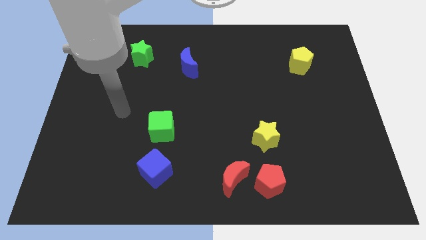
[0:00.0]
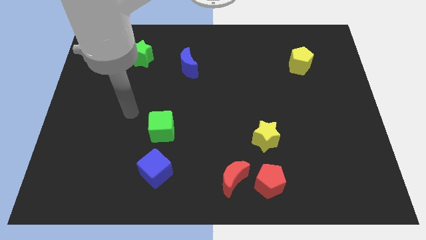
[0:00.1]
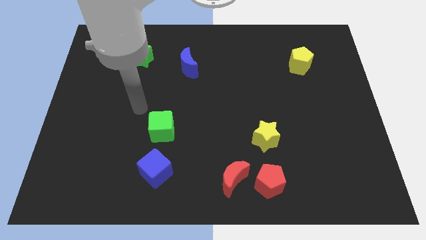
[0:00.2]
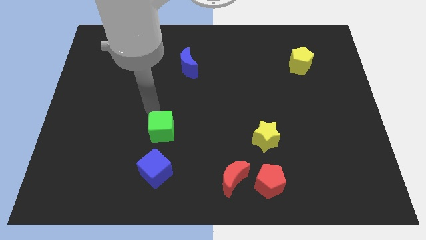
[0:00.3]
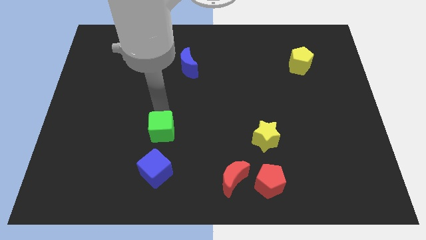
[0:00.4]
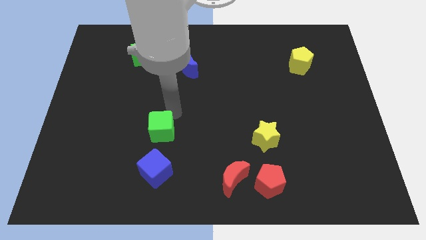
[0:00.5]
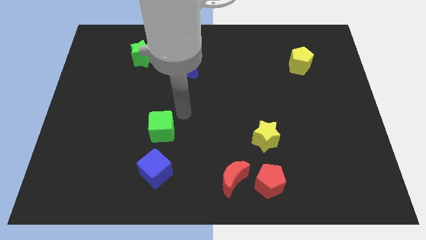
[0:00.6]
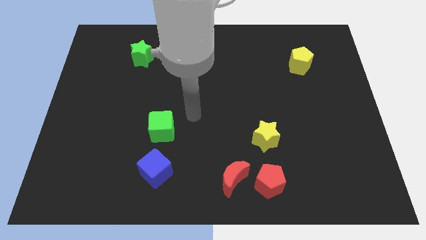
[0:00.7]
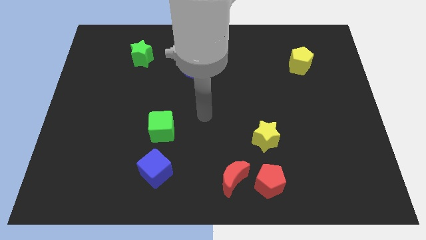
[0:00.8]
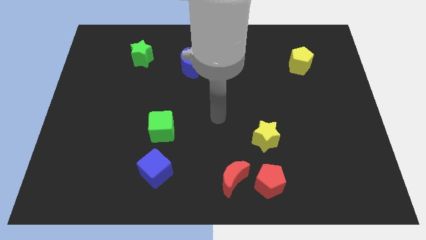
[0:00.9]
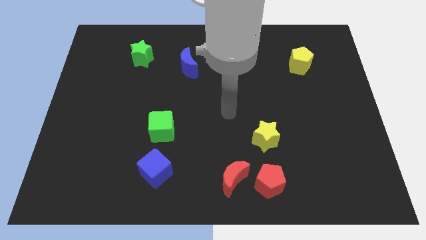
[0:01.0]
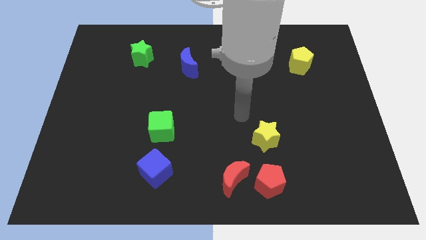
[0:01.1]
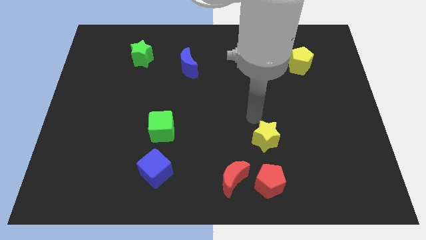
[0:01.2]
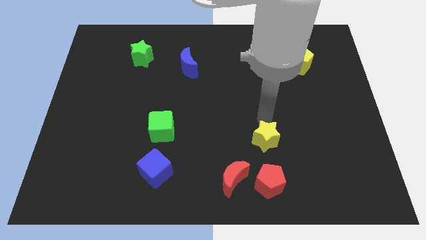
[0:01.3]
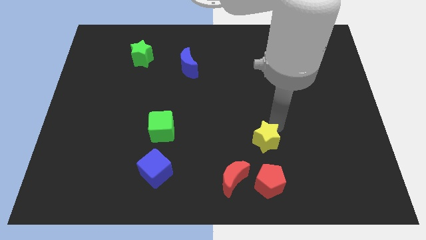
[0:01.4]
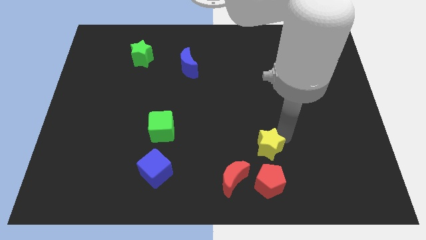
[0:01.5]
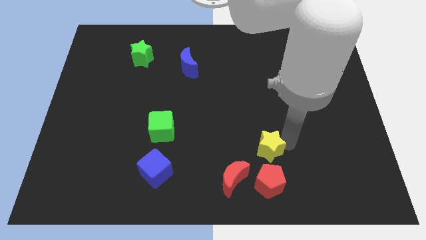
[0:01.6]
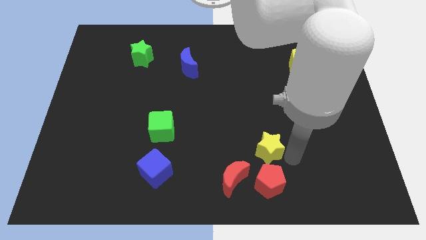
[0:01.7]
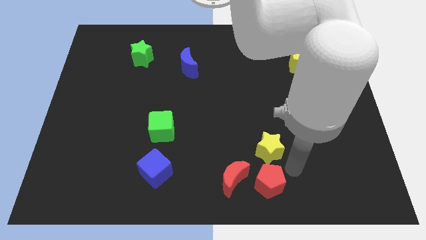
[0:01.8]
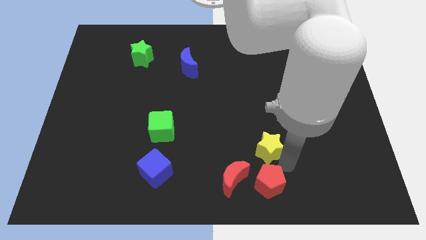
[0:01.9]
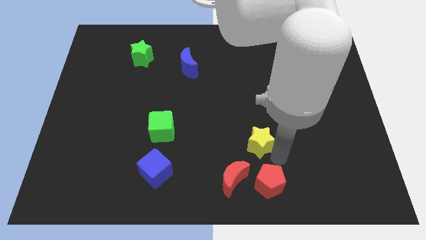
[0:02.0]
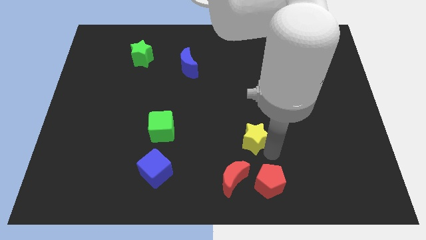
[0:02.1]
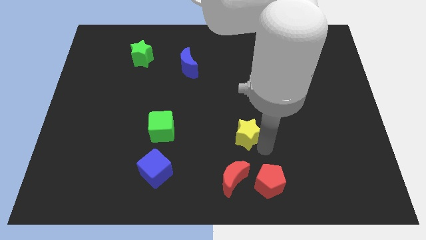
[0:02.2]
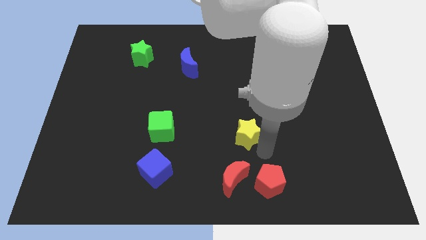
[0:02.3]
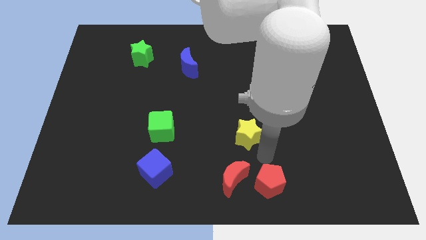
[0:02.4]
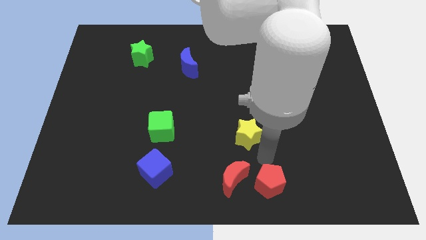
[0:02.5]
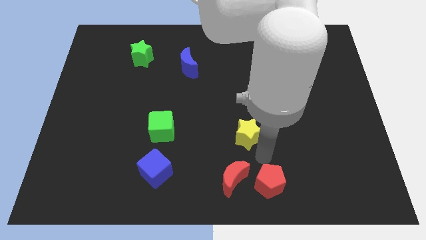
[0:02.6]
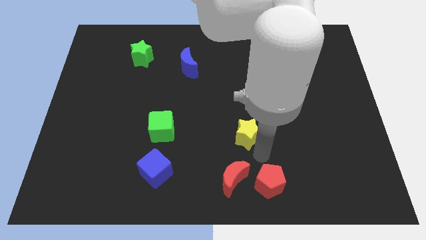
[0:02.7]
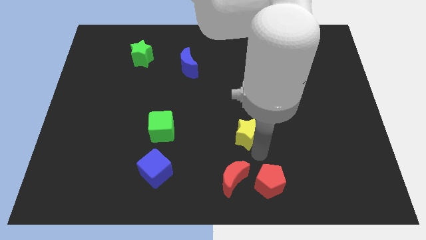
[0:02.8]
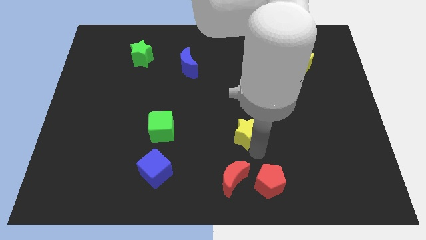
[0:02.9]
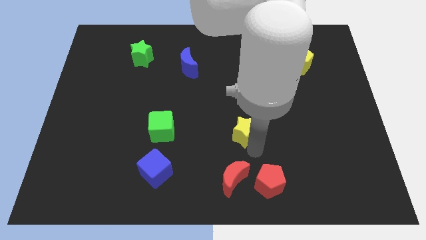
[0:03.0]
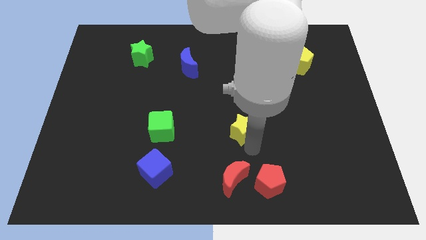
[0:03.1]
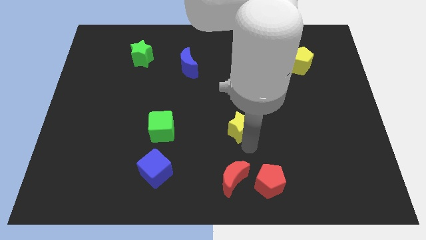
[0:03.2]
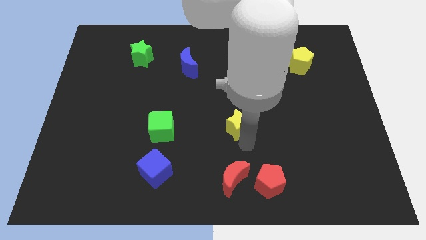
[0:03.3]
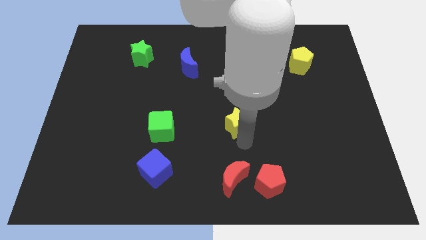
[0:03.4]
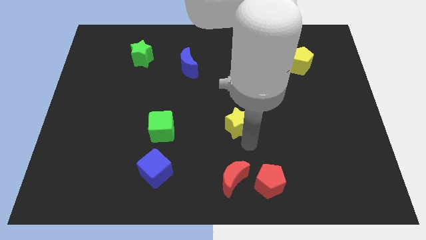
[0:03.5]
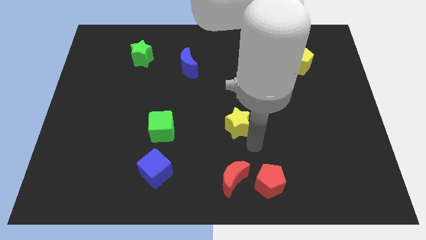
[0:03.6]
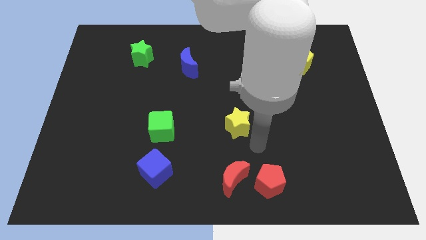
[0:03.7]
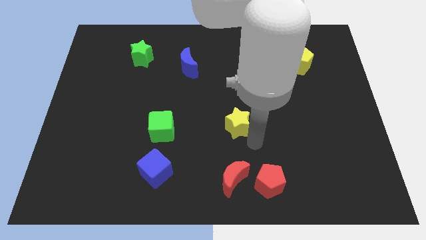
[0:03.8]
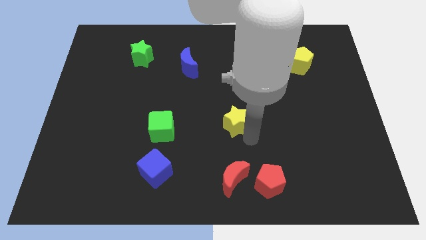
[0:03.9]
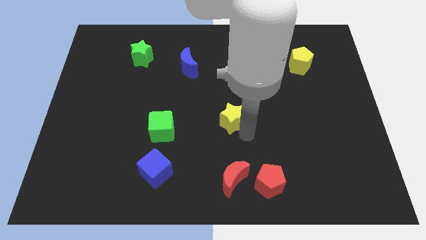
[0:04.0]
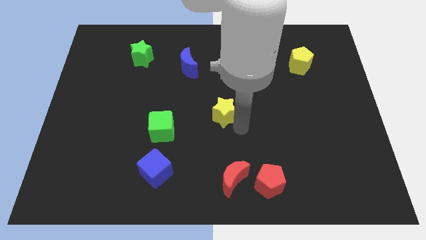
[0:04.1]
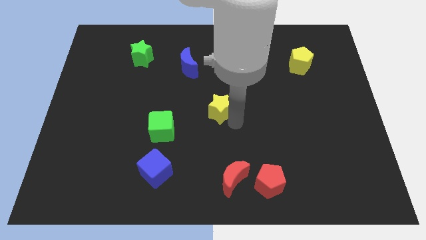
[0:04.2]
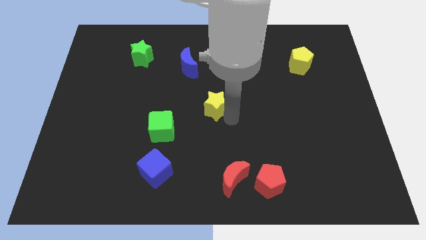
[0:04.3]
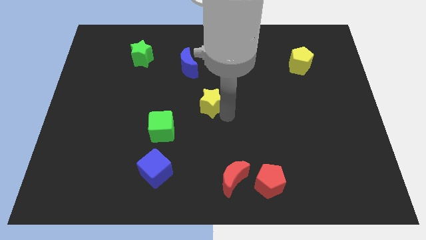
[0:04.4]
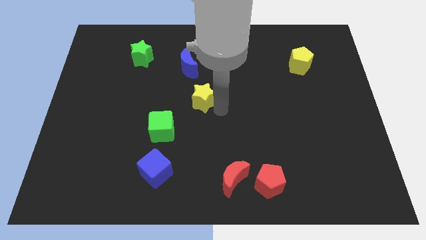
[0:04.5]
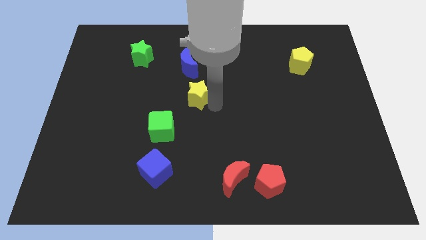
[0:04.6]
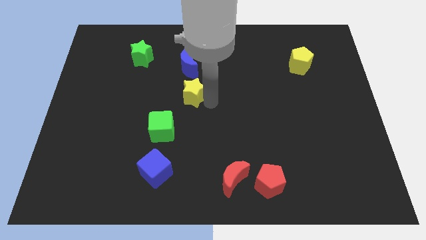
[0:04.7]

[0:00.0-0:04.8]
move the yellow star up and left diagonally

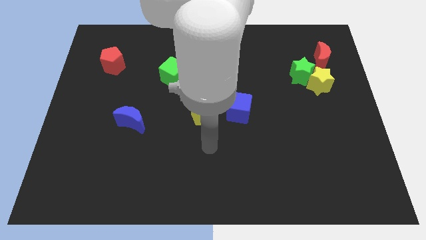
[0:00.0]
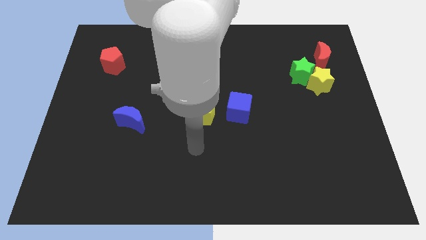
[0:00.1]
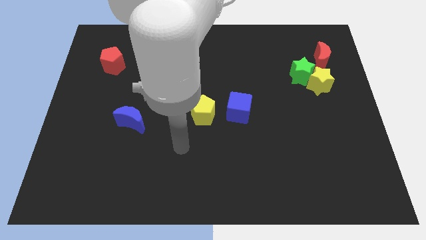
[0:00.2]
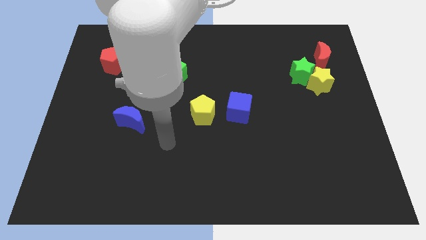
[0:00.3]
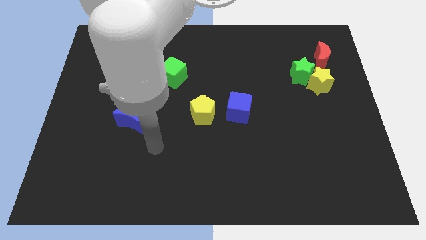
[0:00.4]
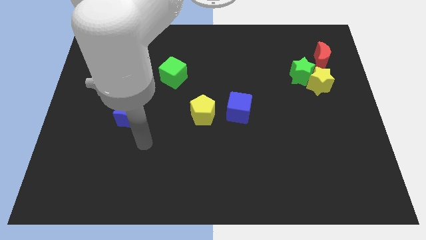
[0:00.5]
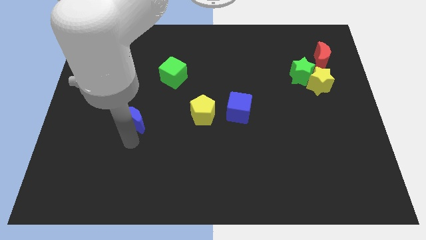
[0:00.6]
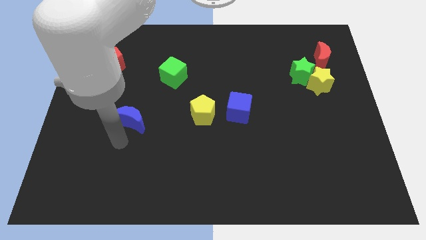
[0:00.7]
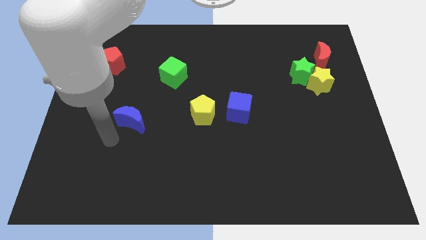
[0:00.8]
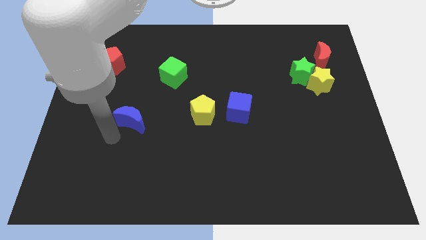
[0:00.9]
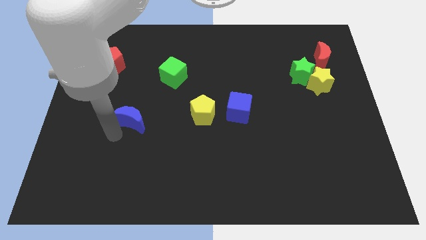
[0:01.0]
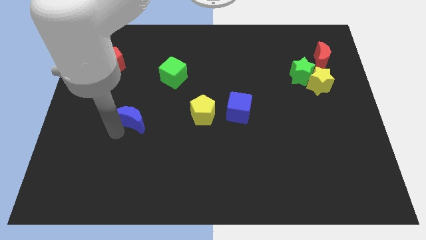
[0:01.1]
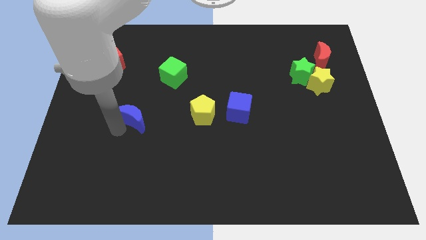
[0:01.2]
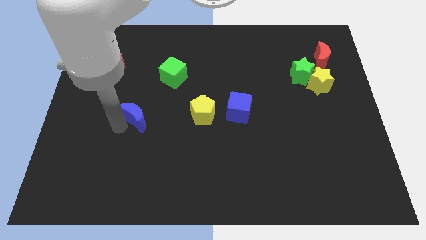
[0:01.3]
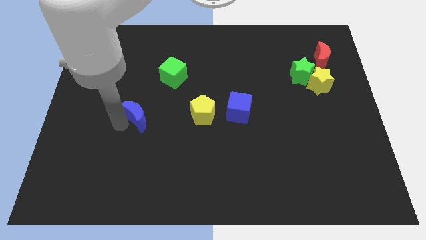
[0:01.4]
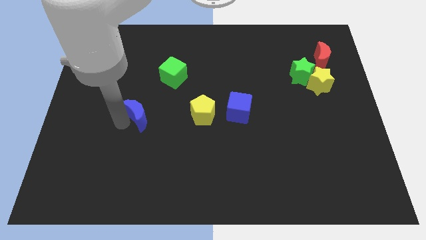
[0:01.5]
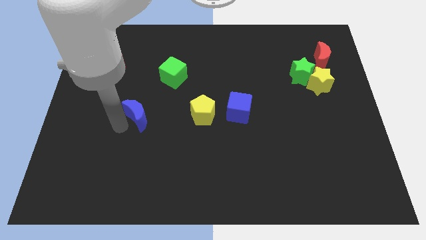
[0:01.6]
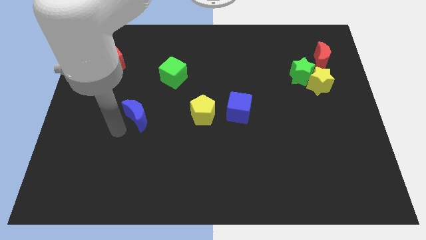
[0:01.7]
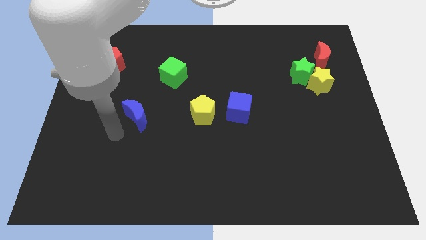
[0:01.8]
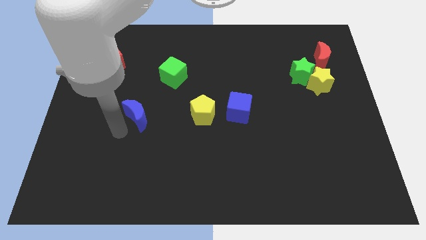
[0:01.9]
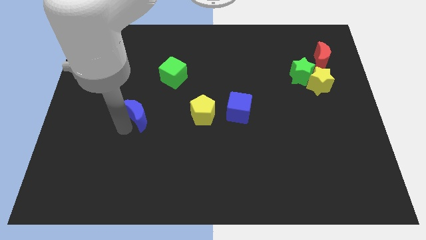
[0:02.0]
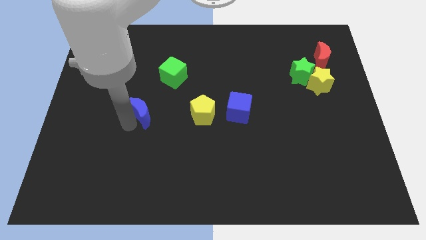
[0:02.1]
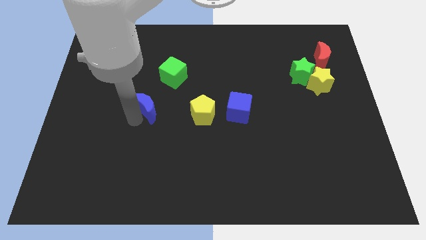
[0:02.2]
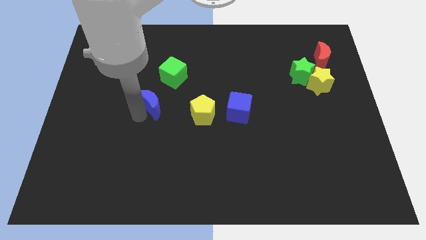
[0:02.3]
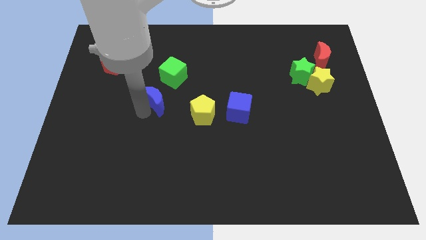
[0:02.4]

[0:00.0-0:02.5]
slide the blue moon up and right diagonally slightly

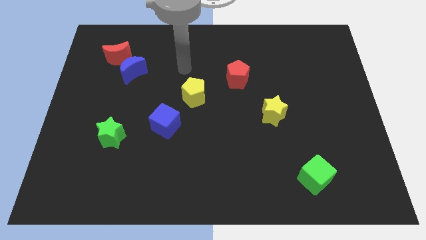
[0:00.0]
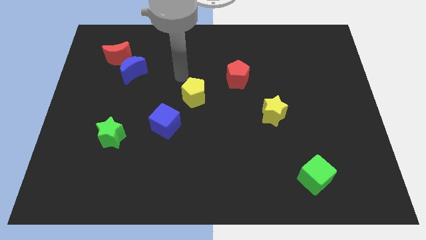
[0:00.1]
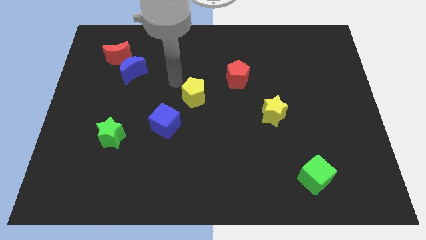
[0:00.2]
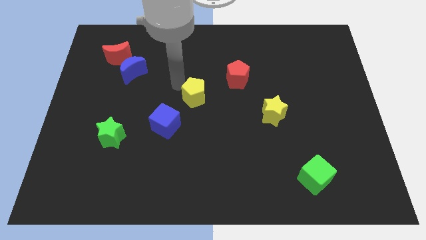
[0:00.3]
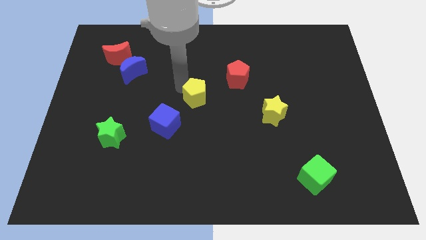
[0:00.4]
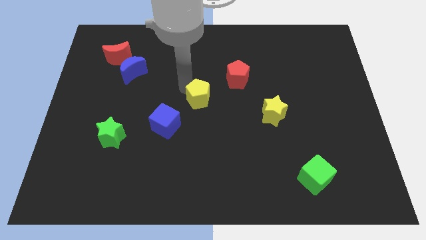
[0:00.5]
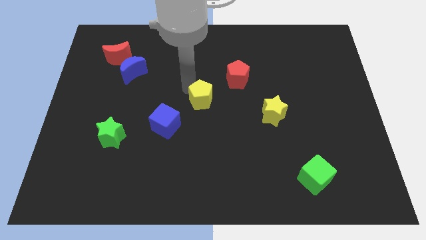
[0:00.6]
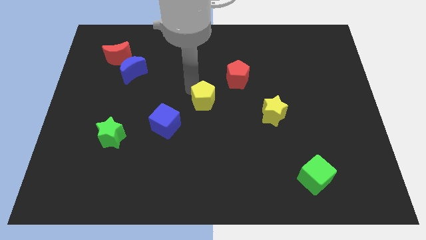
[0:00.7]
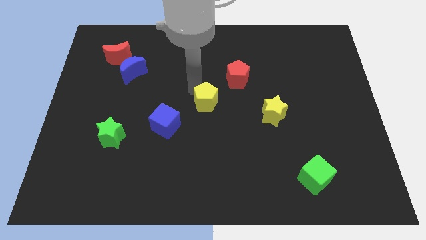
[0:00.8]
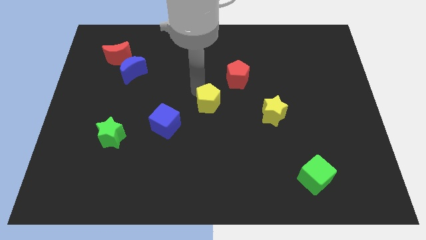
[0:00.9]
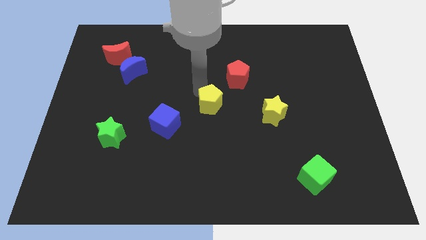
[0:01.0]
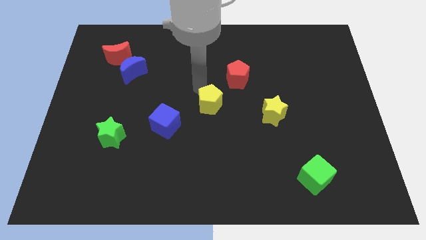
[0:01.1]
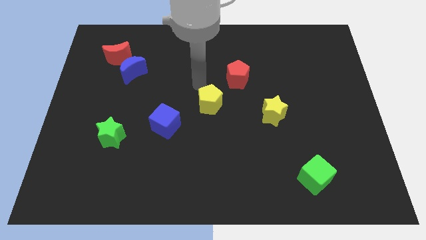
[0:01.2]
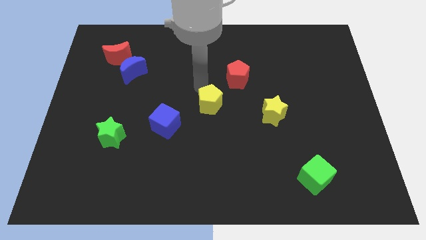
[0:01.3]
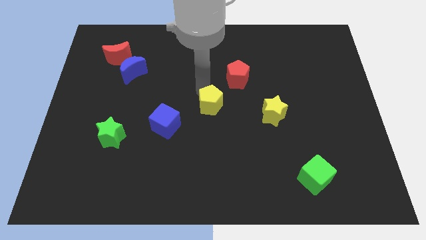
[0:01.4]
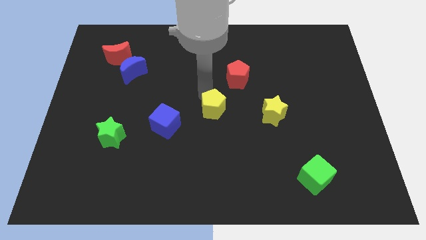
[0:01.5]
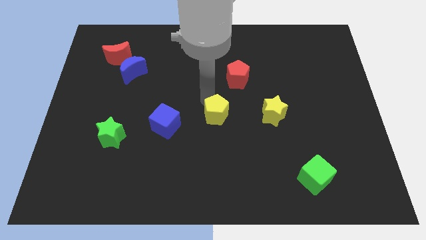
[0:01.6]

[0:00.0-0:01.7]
slightly slide the yellow pentagon diagonally down and right
